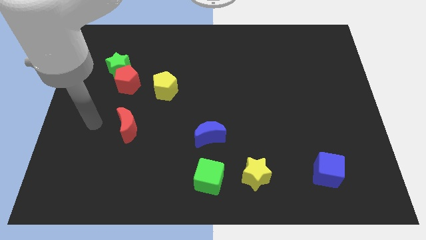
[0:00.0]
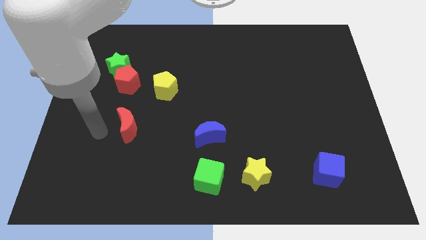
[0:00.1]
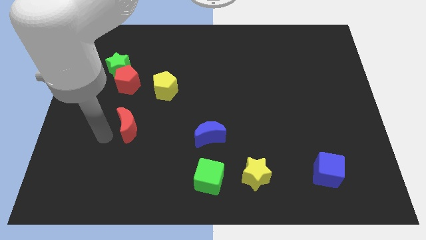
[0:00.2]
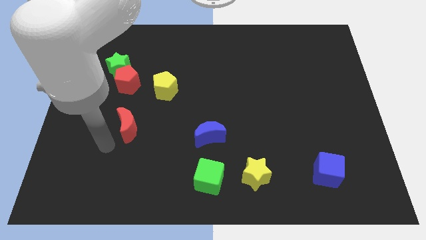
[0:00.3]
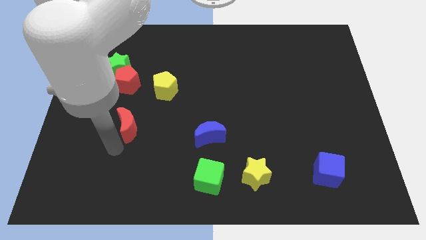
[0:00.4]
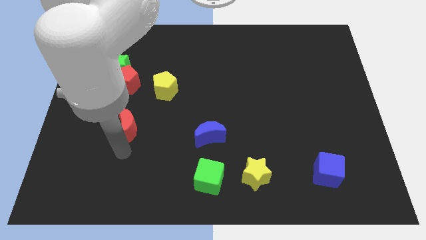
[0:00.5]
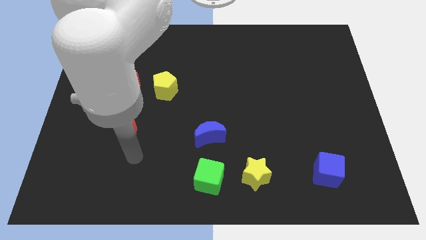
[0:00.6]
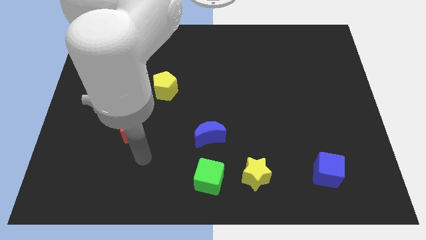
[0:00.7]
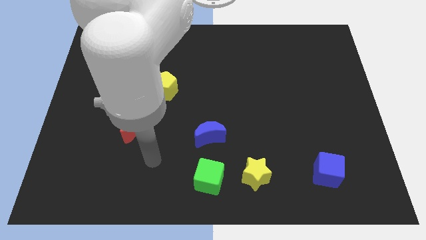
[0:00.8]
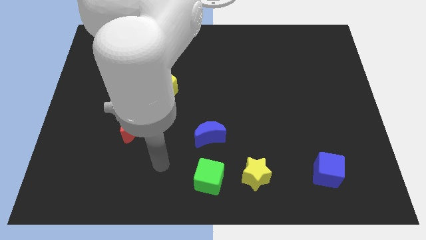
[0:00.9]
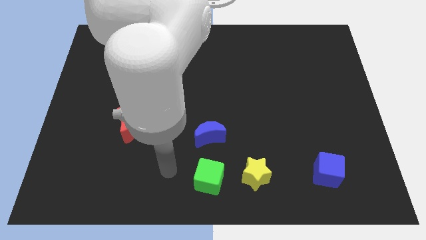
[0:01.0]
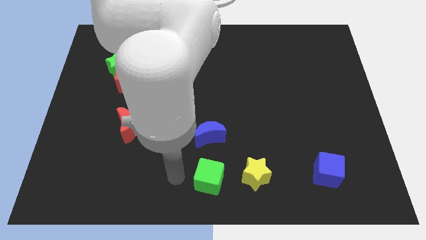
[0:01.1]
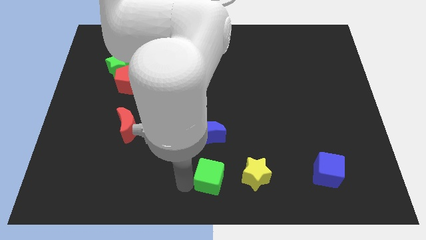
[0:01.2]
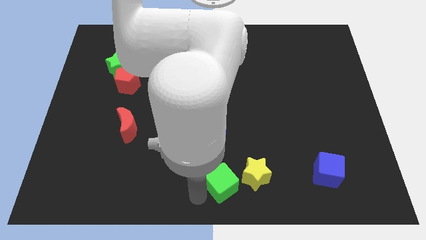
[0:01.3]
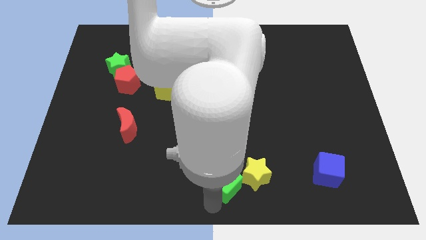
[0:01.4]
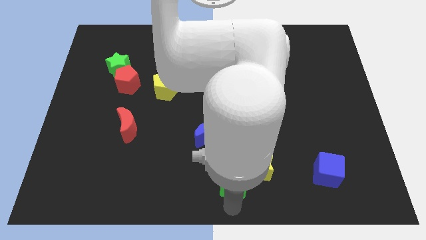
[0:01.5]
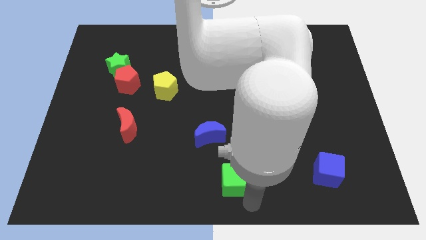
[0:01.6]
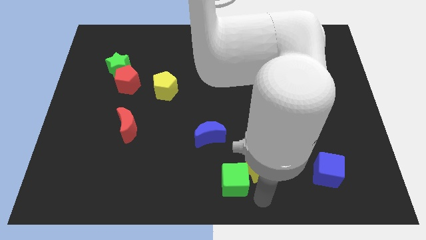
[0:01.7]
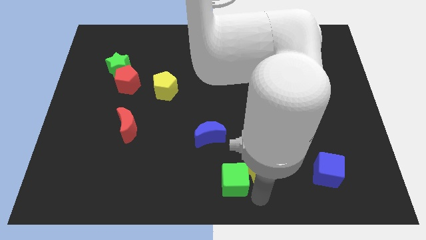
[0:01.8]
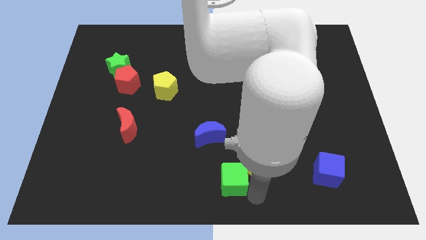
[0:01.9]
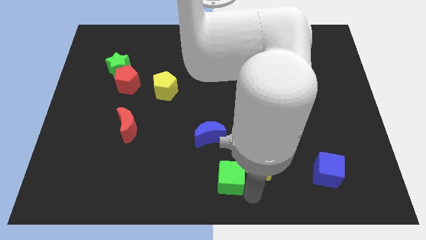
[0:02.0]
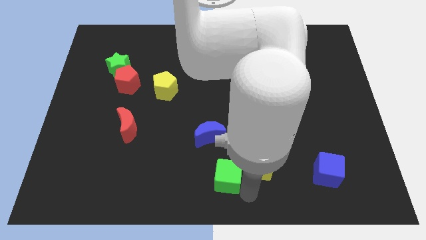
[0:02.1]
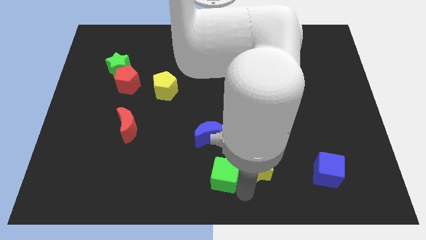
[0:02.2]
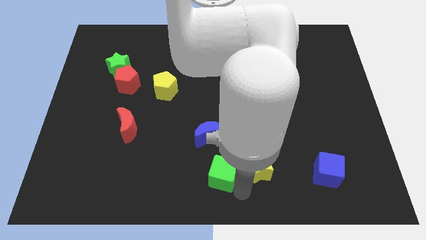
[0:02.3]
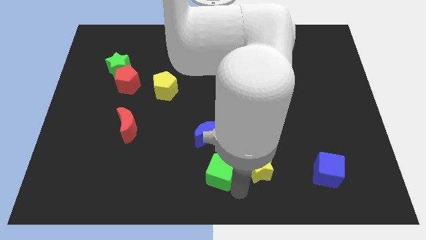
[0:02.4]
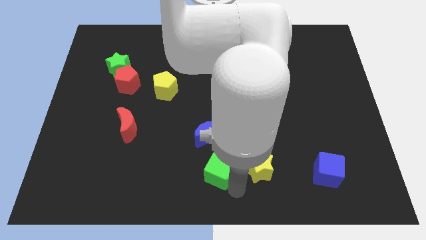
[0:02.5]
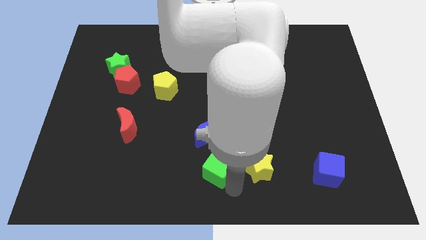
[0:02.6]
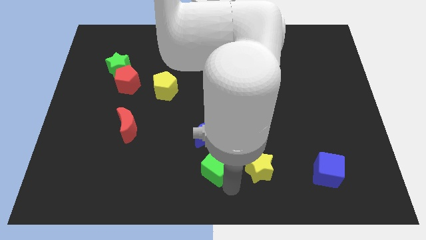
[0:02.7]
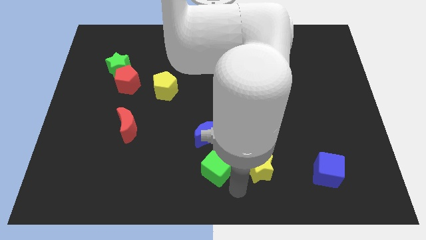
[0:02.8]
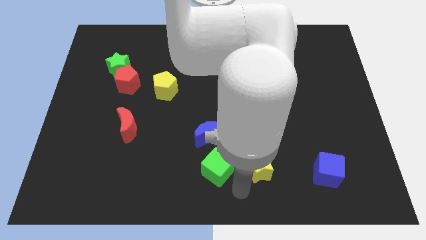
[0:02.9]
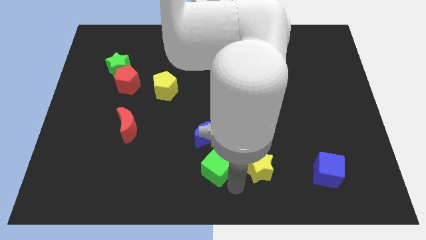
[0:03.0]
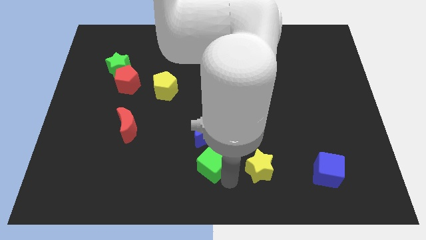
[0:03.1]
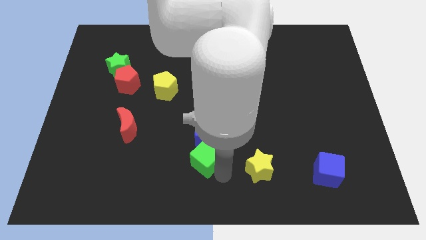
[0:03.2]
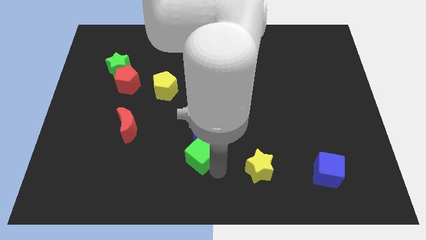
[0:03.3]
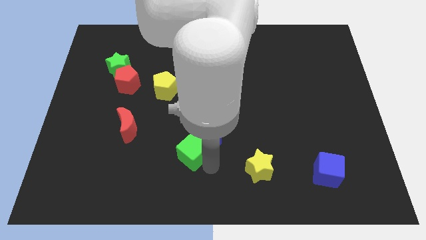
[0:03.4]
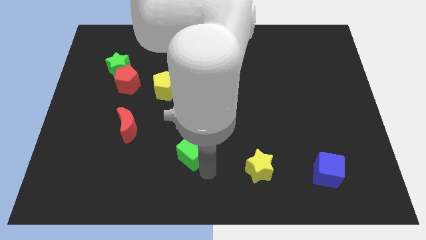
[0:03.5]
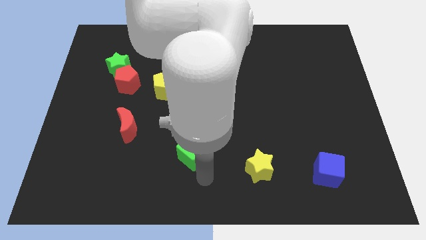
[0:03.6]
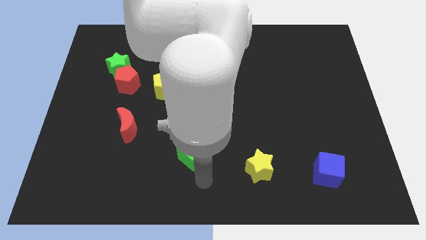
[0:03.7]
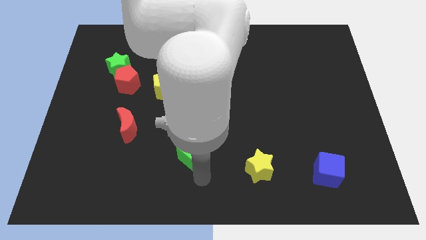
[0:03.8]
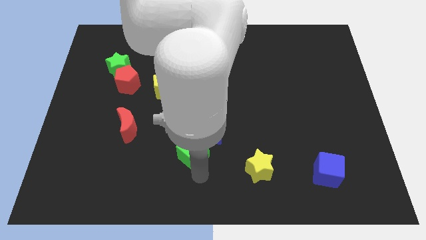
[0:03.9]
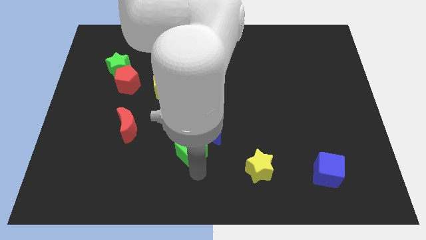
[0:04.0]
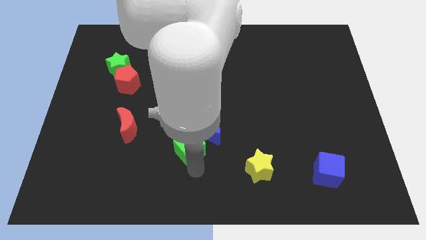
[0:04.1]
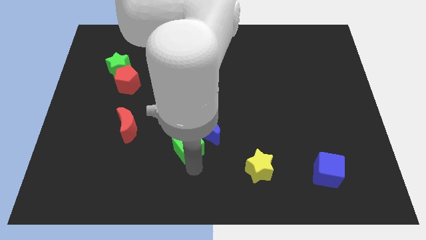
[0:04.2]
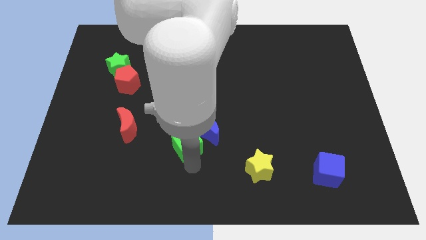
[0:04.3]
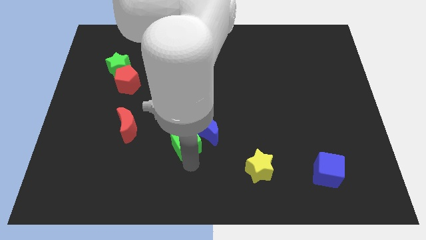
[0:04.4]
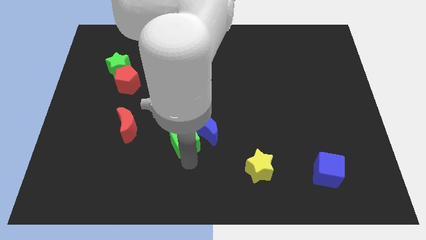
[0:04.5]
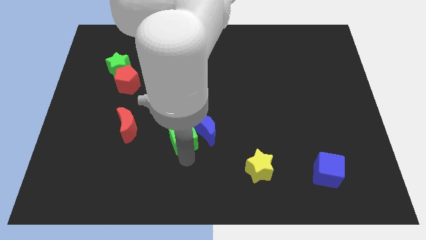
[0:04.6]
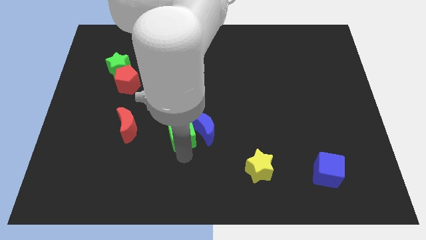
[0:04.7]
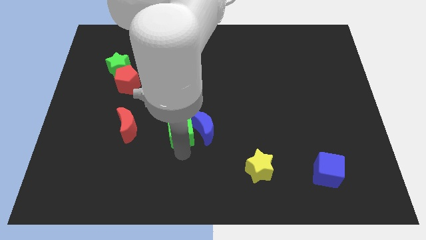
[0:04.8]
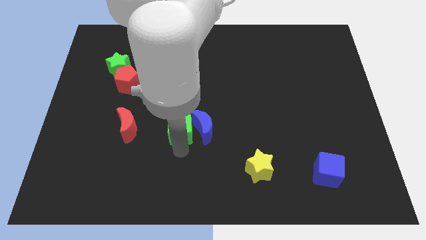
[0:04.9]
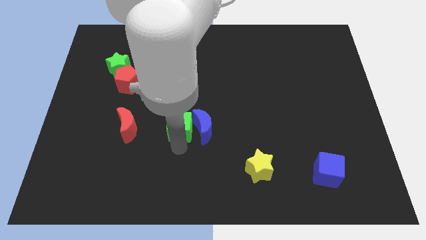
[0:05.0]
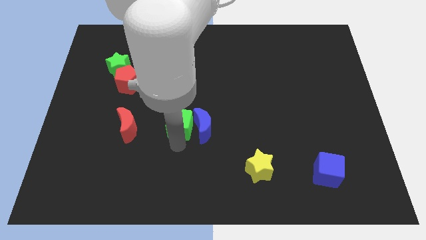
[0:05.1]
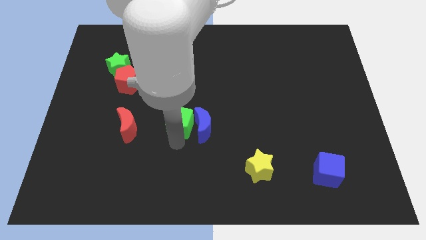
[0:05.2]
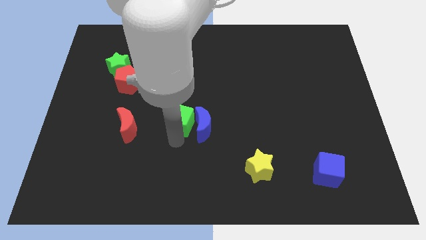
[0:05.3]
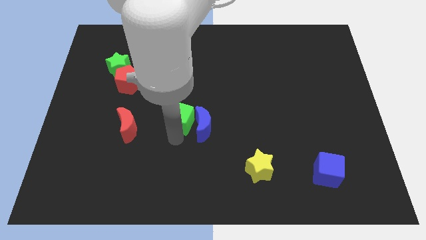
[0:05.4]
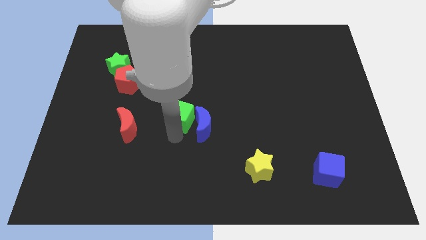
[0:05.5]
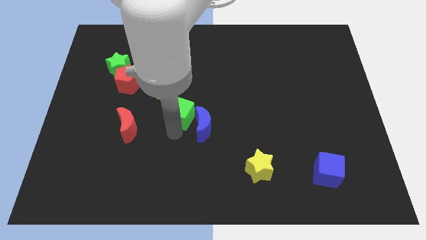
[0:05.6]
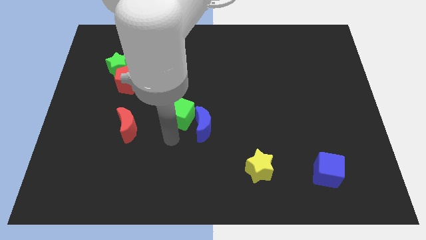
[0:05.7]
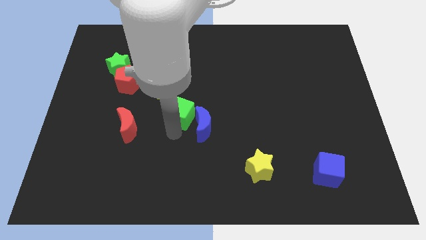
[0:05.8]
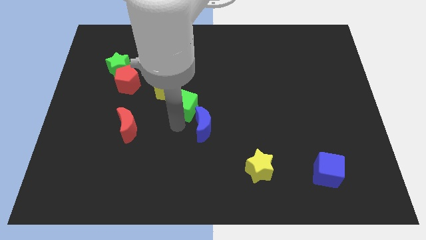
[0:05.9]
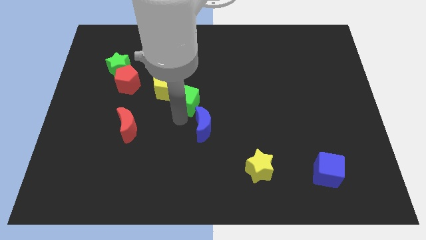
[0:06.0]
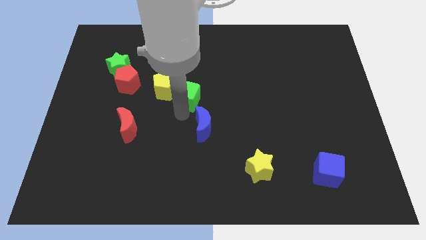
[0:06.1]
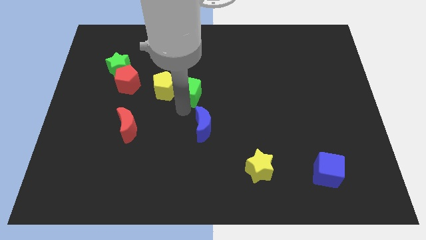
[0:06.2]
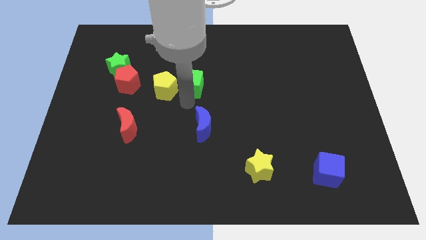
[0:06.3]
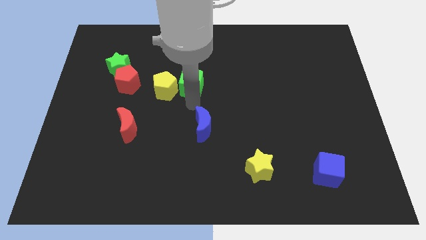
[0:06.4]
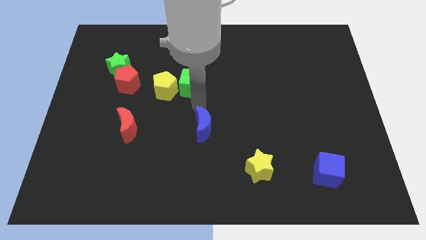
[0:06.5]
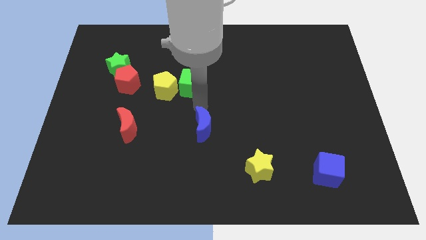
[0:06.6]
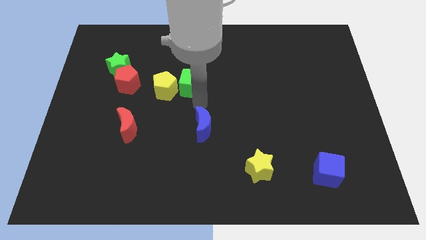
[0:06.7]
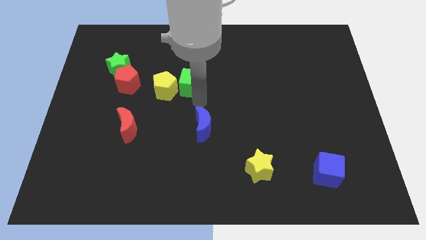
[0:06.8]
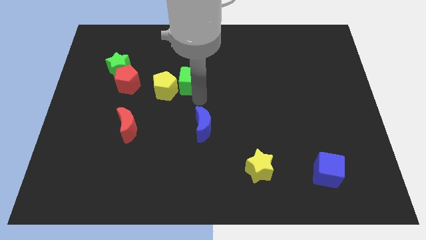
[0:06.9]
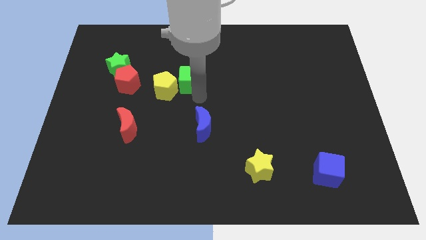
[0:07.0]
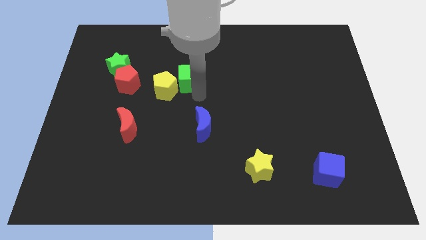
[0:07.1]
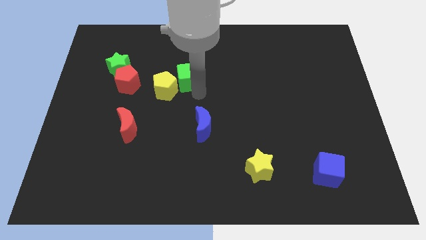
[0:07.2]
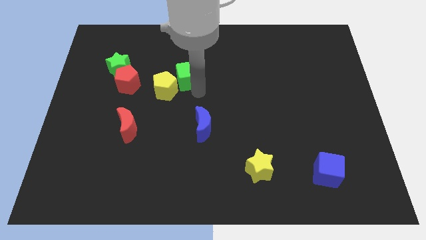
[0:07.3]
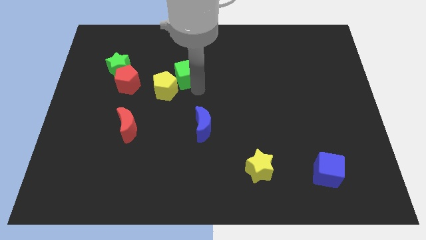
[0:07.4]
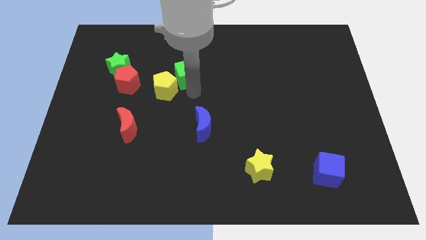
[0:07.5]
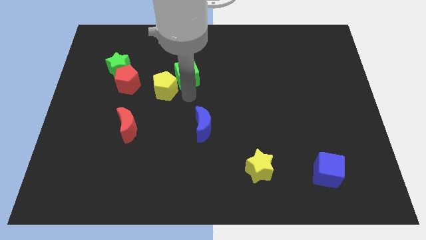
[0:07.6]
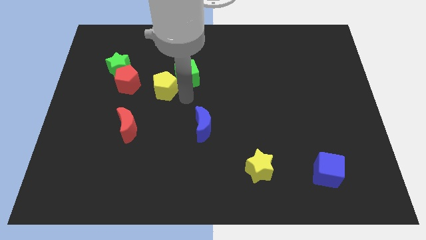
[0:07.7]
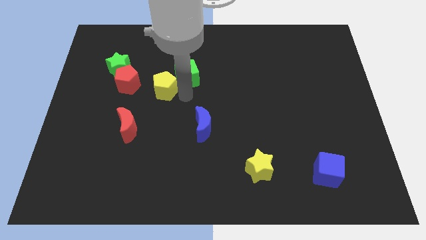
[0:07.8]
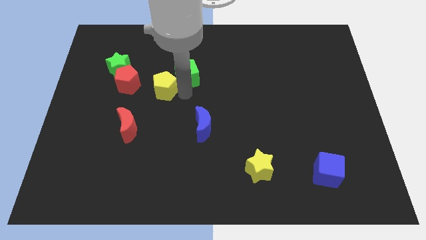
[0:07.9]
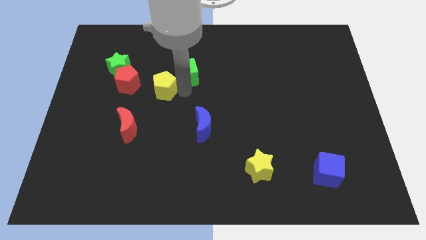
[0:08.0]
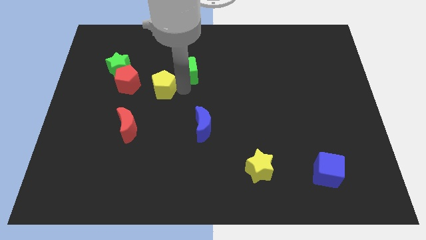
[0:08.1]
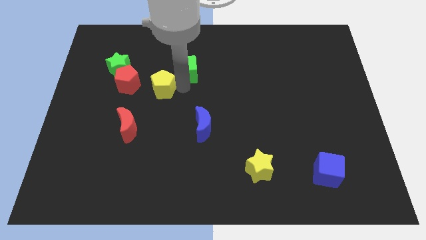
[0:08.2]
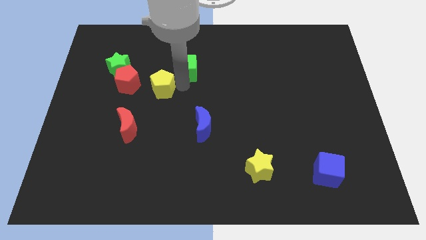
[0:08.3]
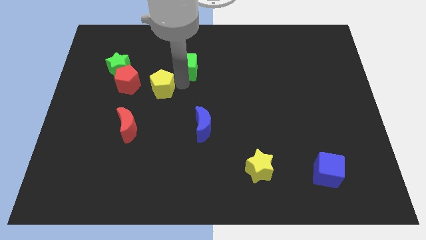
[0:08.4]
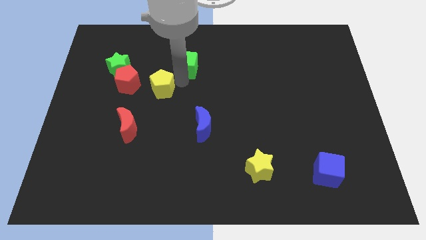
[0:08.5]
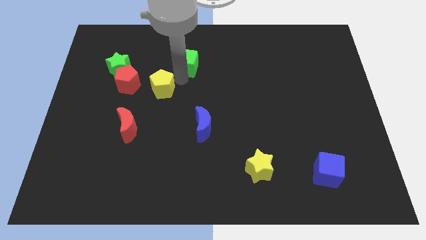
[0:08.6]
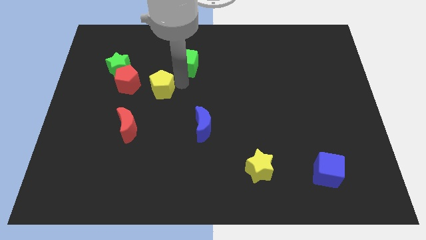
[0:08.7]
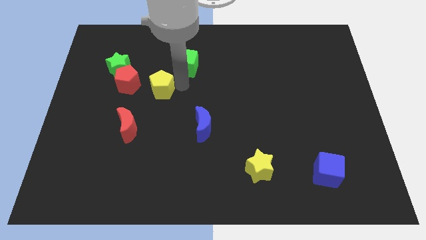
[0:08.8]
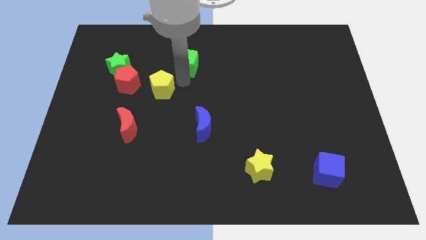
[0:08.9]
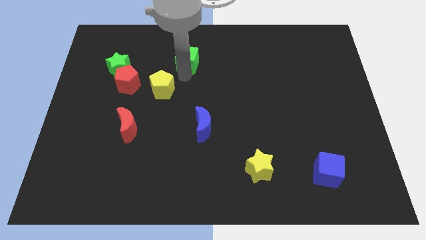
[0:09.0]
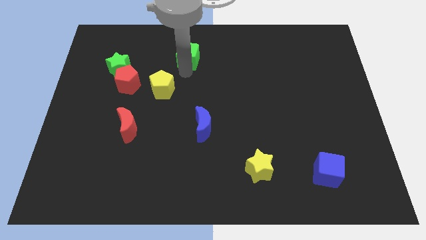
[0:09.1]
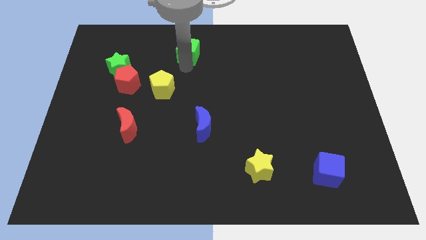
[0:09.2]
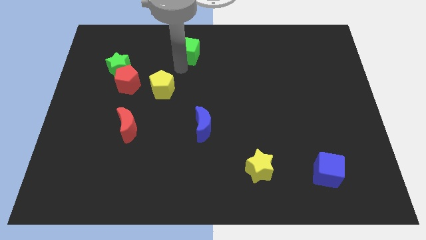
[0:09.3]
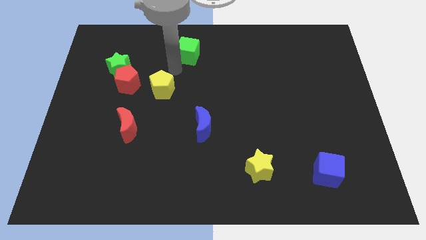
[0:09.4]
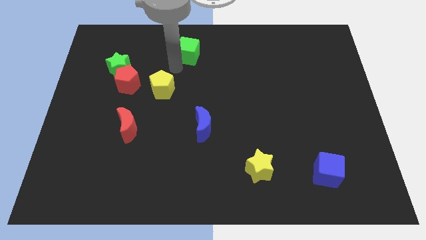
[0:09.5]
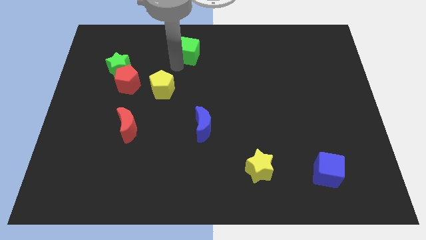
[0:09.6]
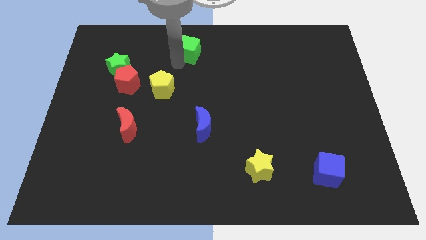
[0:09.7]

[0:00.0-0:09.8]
push the green cube to the top
